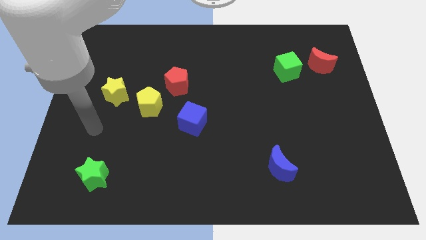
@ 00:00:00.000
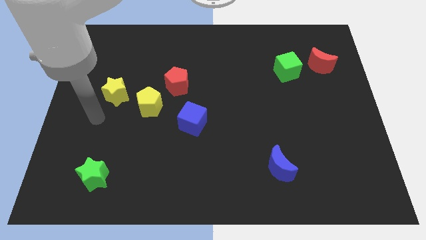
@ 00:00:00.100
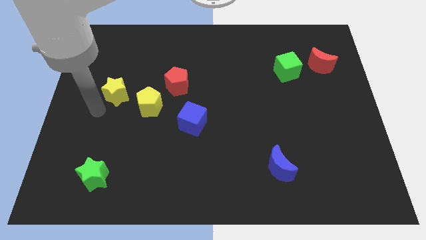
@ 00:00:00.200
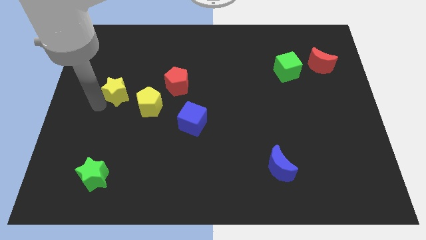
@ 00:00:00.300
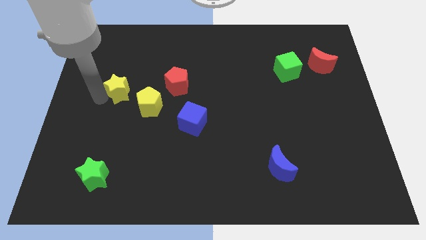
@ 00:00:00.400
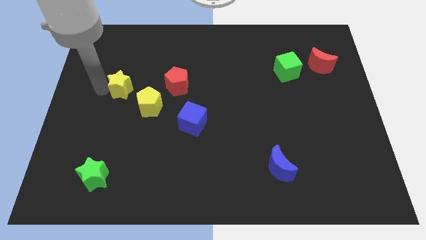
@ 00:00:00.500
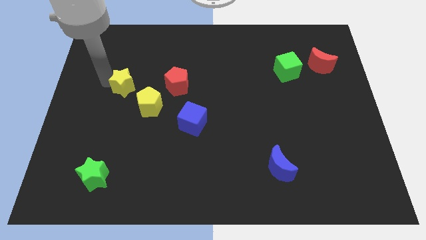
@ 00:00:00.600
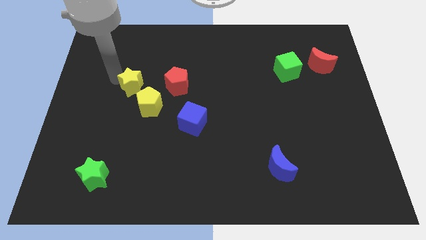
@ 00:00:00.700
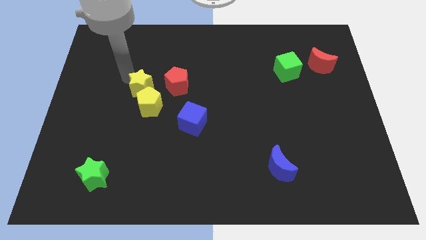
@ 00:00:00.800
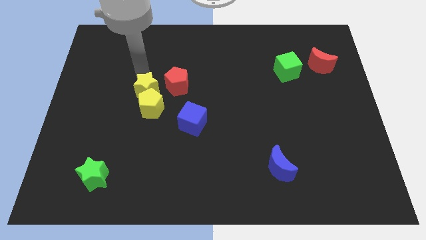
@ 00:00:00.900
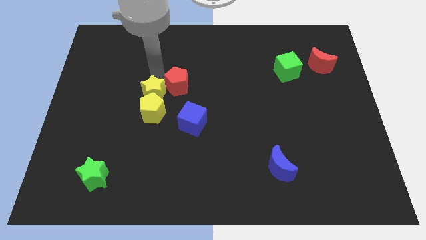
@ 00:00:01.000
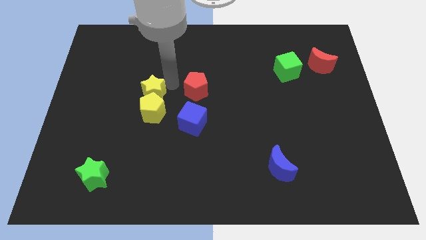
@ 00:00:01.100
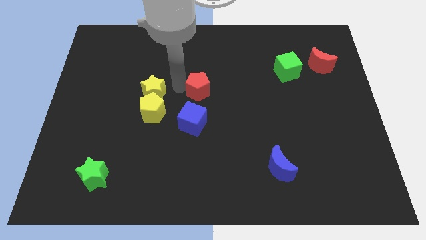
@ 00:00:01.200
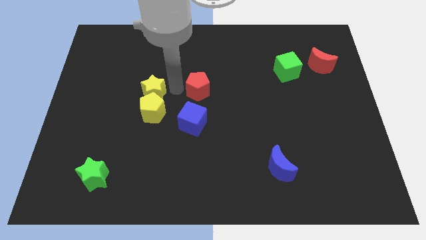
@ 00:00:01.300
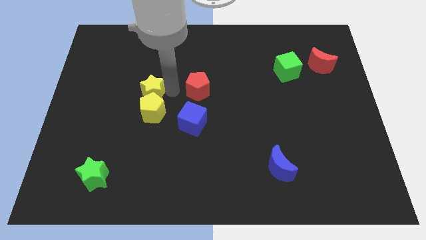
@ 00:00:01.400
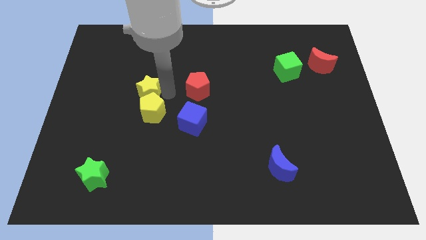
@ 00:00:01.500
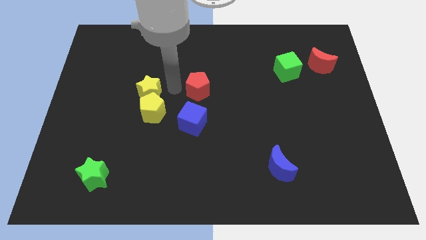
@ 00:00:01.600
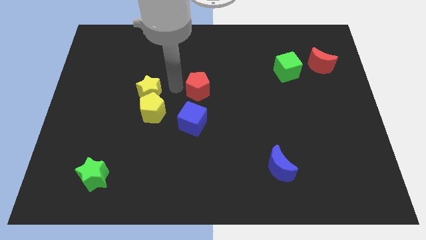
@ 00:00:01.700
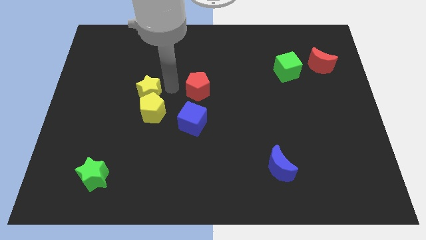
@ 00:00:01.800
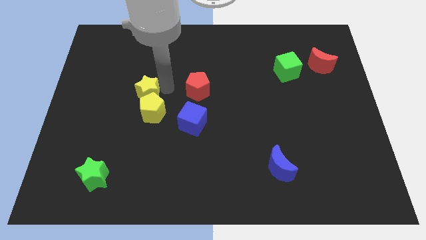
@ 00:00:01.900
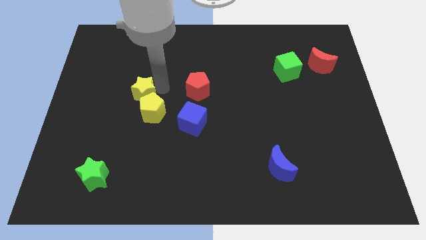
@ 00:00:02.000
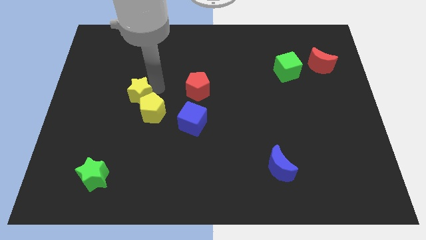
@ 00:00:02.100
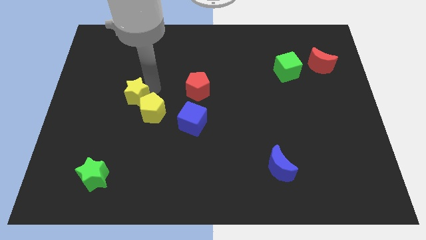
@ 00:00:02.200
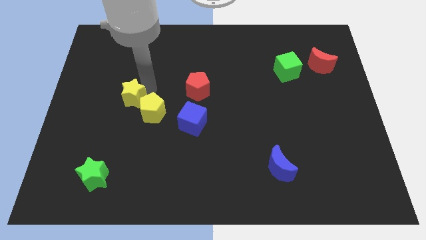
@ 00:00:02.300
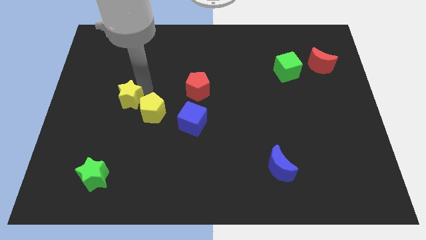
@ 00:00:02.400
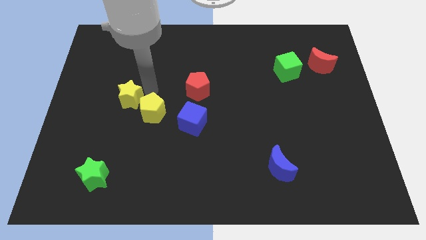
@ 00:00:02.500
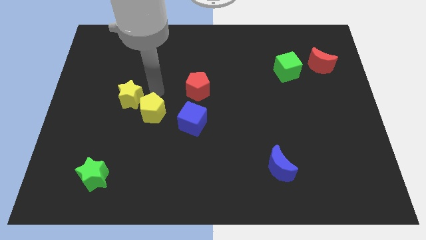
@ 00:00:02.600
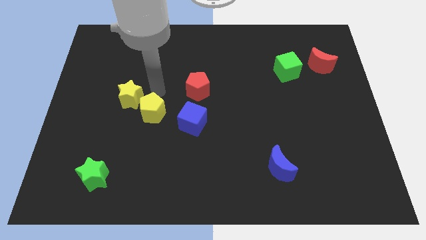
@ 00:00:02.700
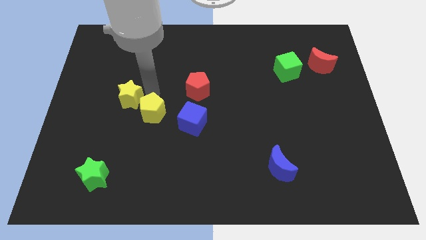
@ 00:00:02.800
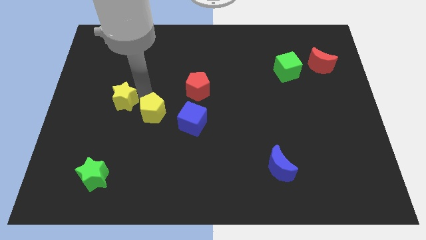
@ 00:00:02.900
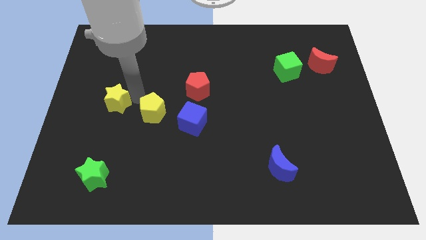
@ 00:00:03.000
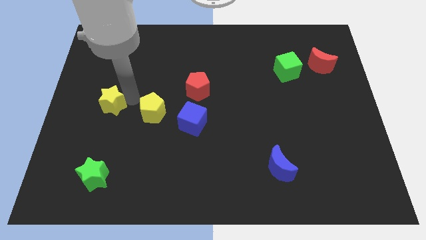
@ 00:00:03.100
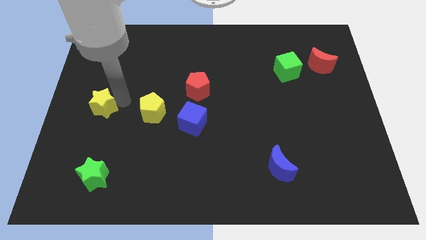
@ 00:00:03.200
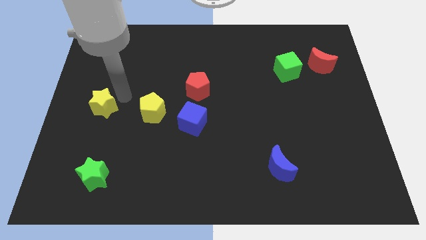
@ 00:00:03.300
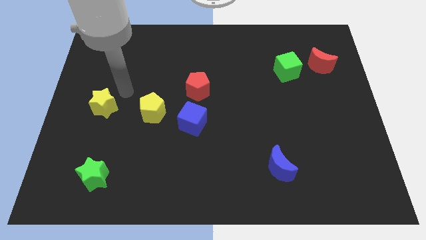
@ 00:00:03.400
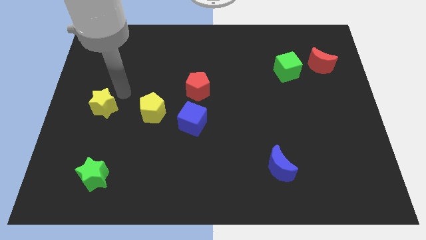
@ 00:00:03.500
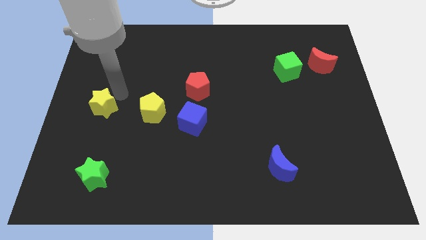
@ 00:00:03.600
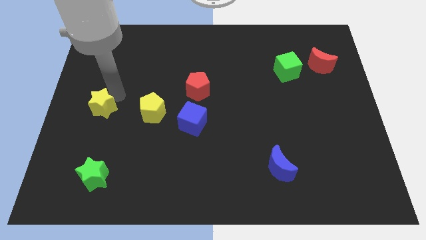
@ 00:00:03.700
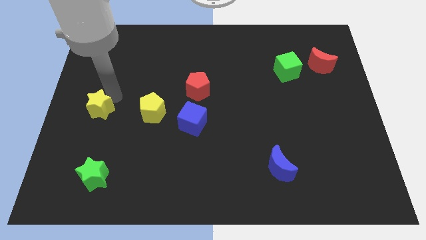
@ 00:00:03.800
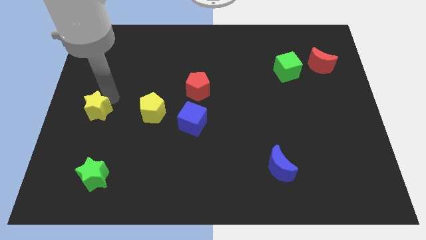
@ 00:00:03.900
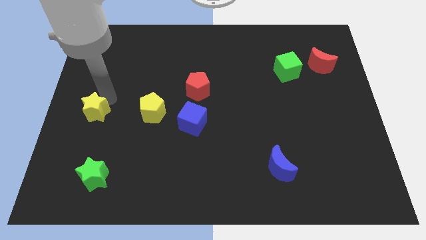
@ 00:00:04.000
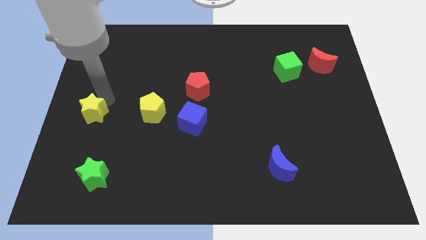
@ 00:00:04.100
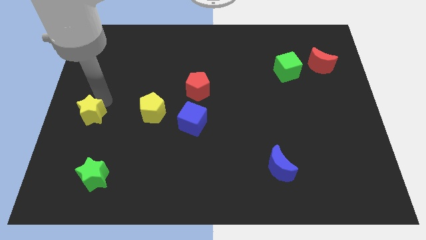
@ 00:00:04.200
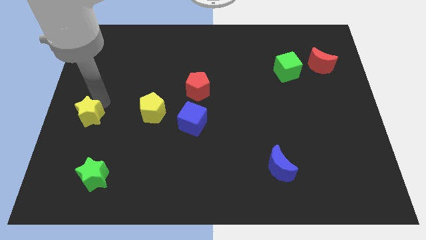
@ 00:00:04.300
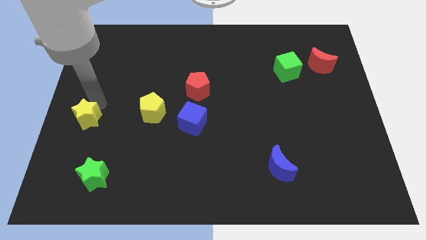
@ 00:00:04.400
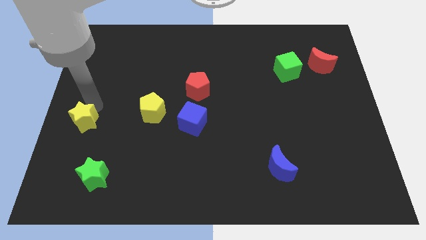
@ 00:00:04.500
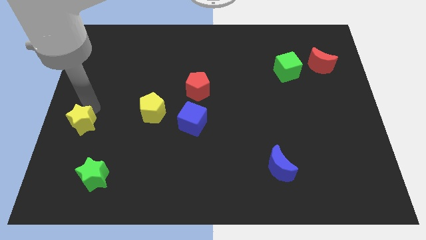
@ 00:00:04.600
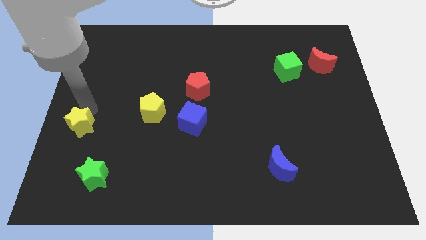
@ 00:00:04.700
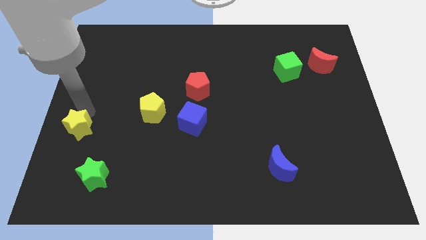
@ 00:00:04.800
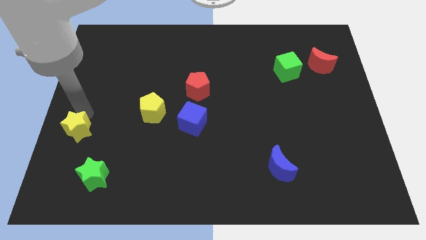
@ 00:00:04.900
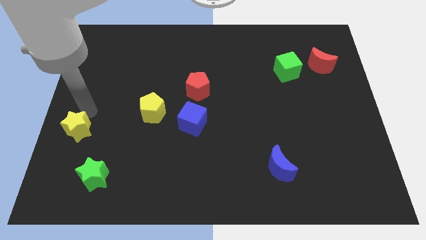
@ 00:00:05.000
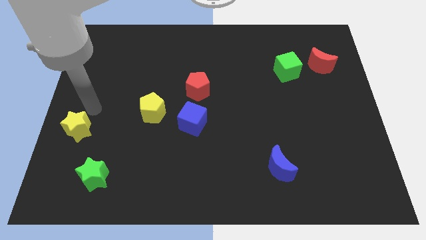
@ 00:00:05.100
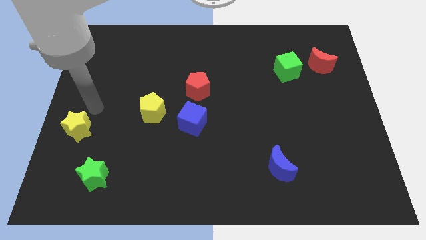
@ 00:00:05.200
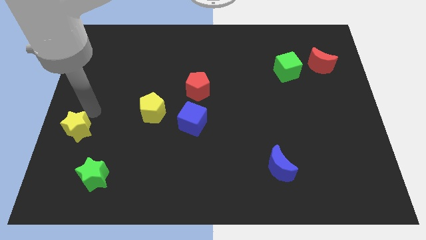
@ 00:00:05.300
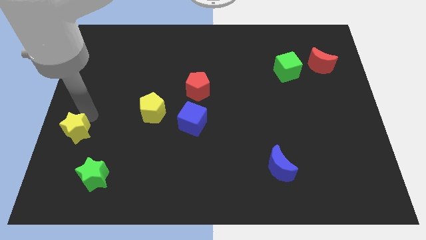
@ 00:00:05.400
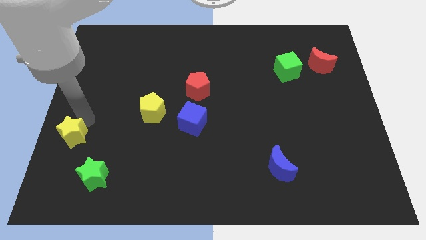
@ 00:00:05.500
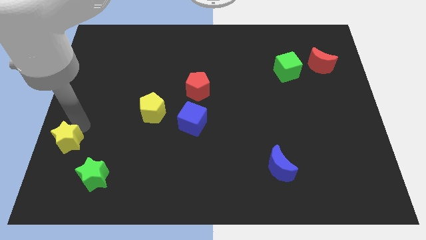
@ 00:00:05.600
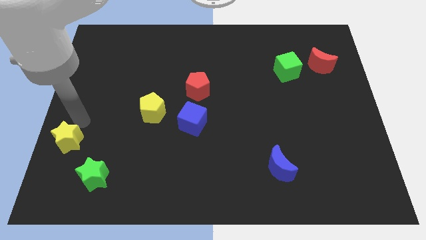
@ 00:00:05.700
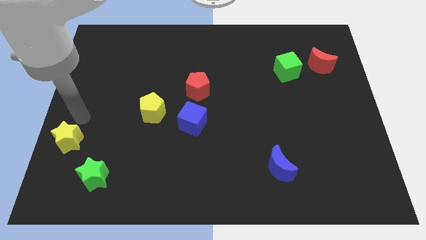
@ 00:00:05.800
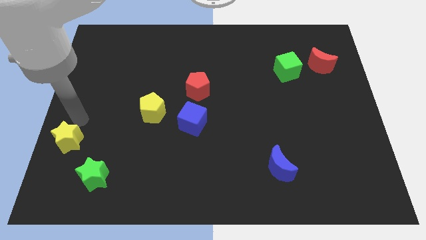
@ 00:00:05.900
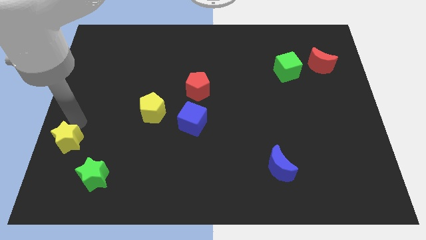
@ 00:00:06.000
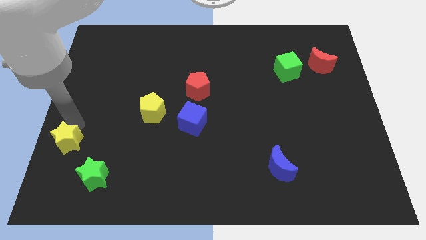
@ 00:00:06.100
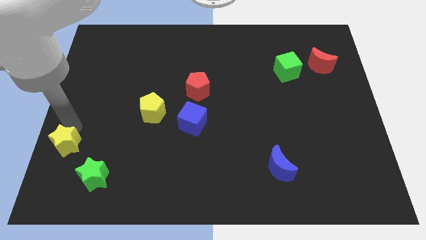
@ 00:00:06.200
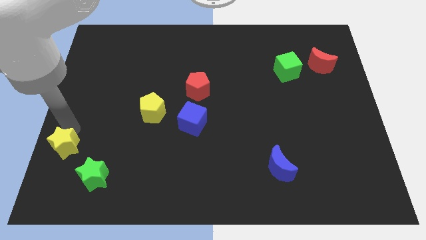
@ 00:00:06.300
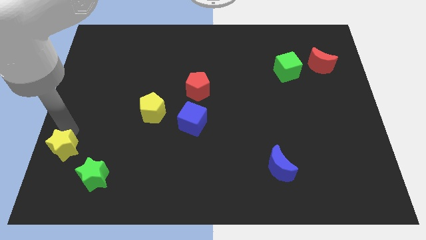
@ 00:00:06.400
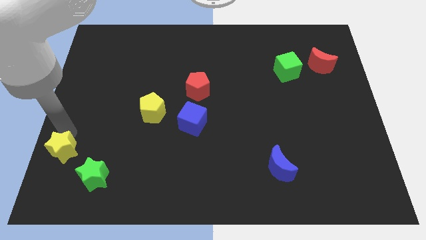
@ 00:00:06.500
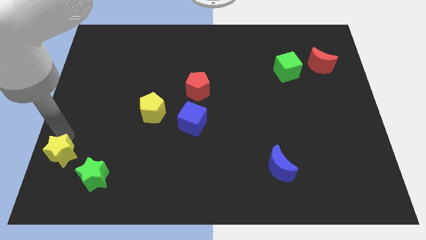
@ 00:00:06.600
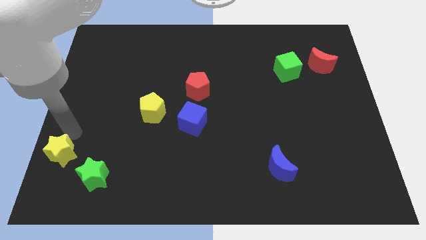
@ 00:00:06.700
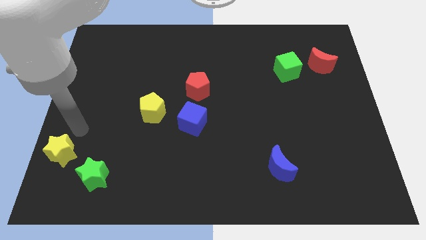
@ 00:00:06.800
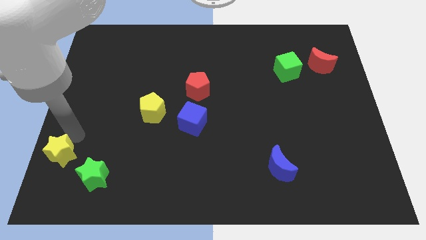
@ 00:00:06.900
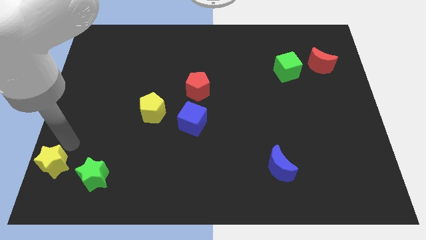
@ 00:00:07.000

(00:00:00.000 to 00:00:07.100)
put the yellow star to the lower left corner
